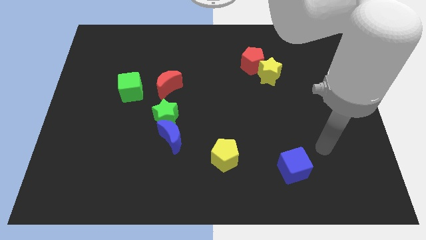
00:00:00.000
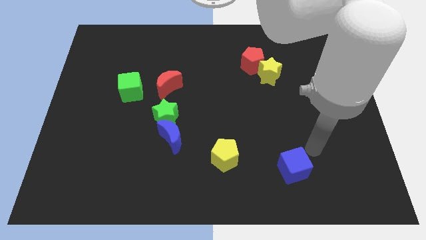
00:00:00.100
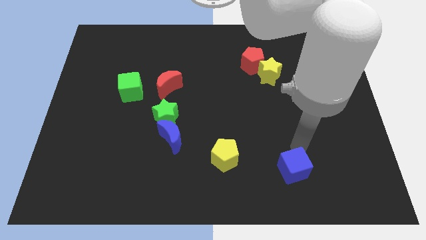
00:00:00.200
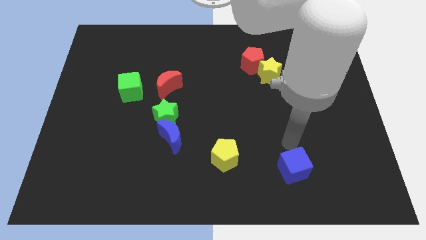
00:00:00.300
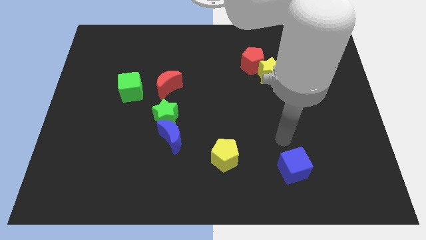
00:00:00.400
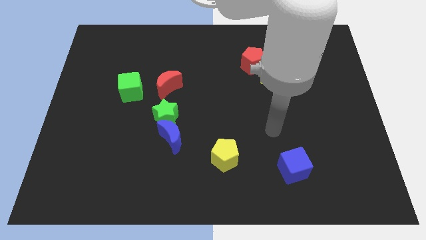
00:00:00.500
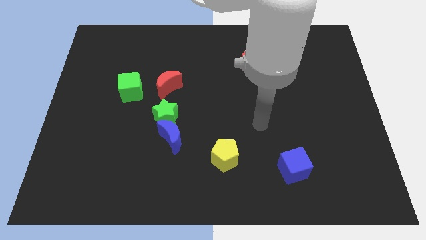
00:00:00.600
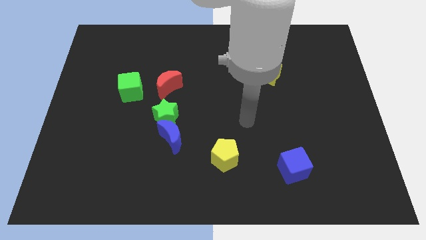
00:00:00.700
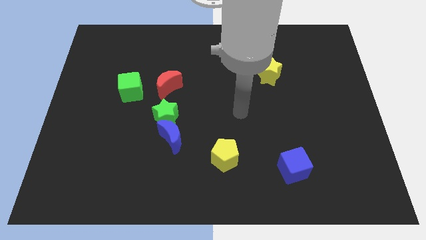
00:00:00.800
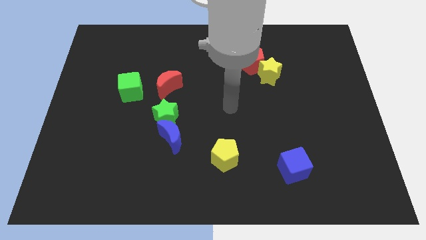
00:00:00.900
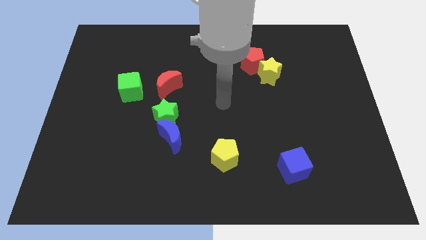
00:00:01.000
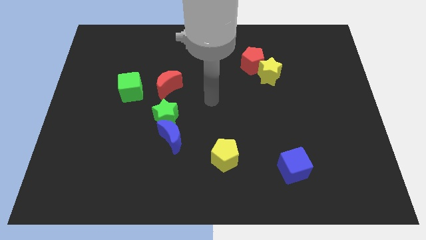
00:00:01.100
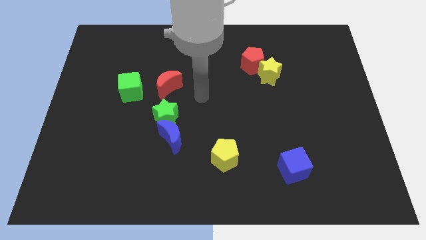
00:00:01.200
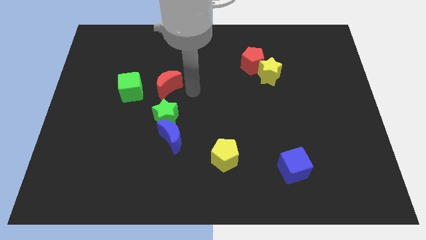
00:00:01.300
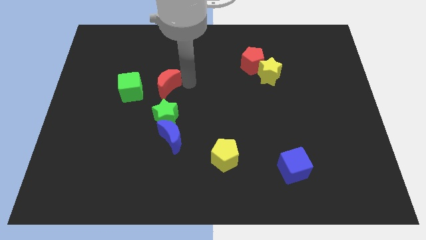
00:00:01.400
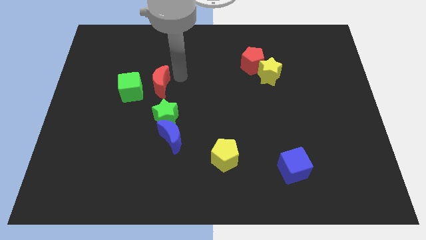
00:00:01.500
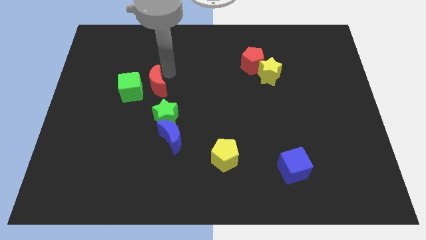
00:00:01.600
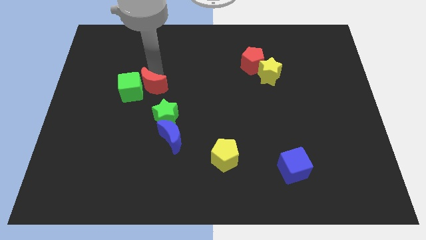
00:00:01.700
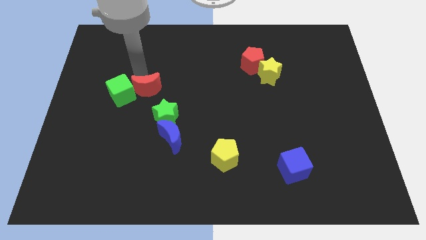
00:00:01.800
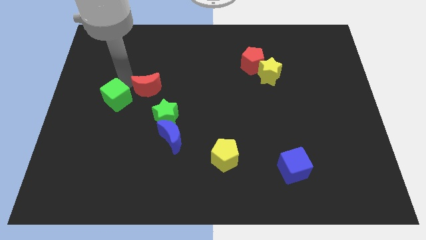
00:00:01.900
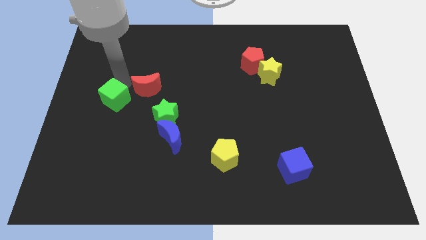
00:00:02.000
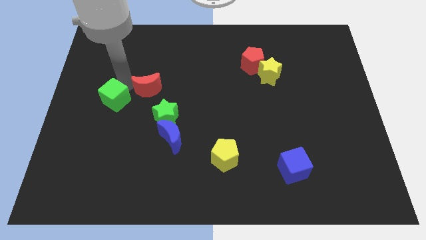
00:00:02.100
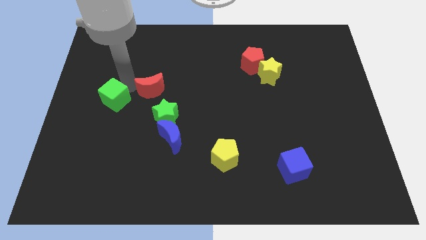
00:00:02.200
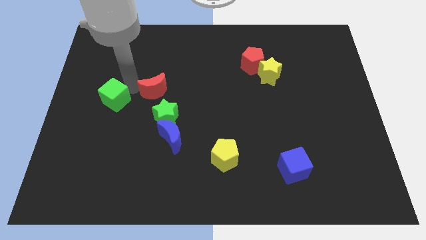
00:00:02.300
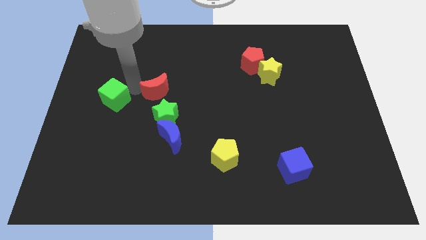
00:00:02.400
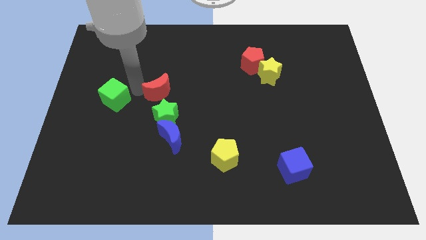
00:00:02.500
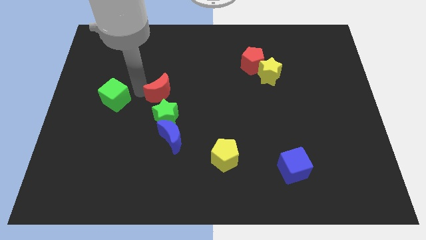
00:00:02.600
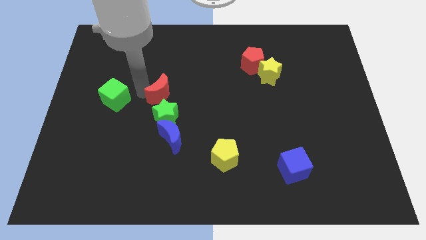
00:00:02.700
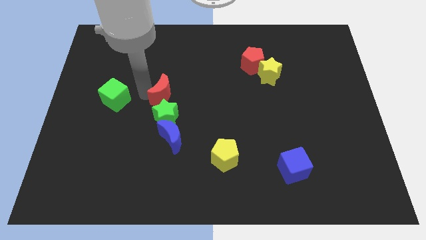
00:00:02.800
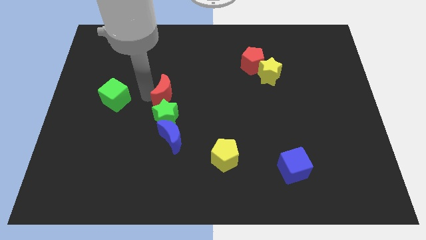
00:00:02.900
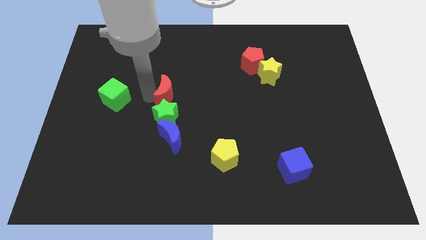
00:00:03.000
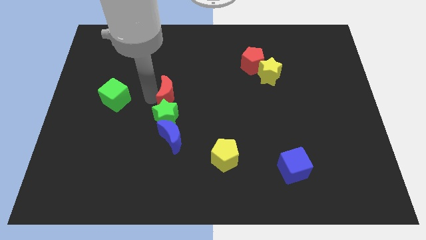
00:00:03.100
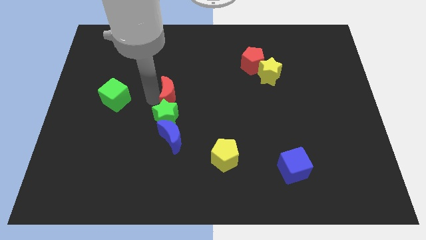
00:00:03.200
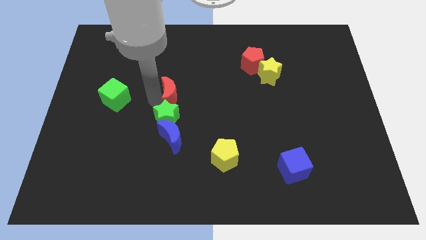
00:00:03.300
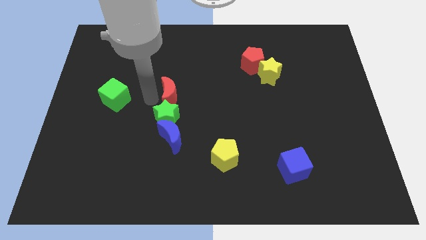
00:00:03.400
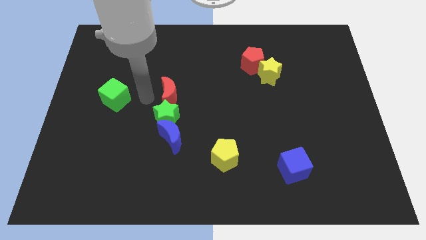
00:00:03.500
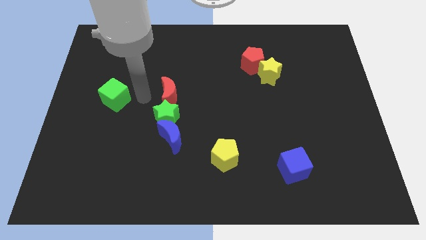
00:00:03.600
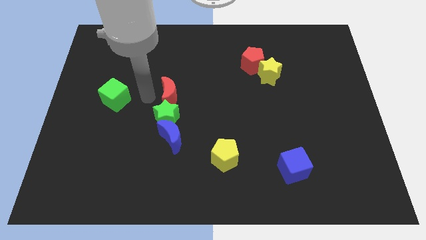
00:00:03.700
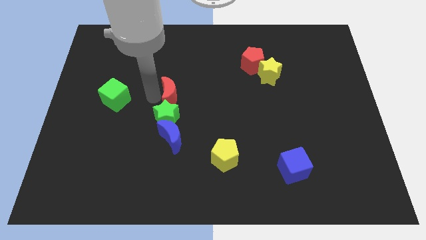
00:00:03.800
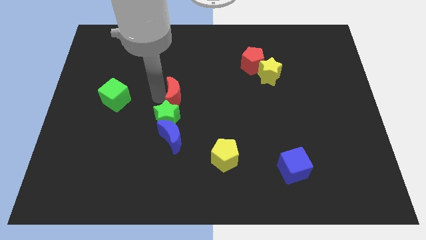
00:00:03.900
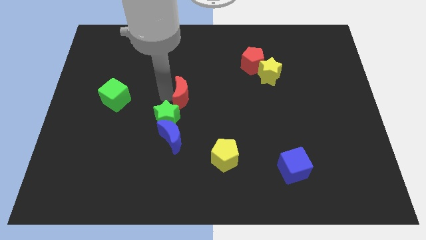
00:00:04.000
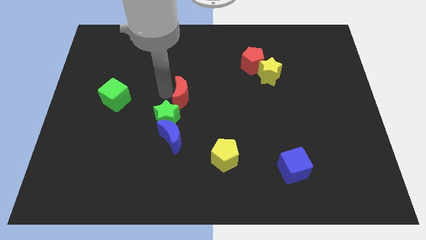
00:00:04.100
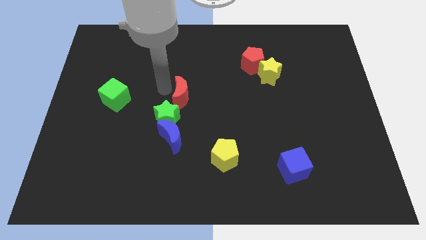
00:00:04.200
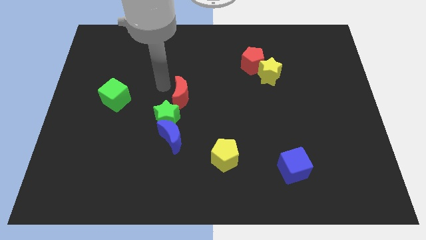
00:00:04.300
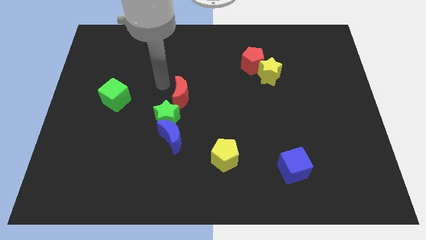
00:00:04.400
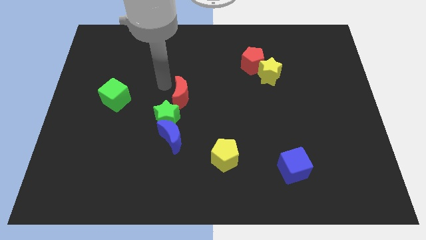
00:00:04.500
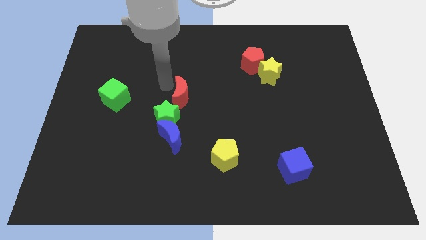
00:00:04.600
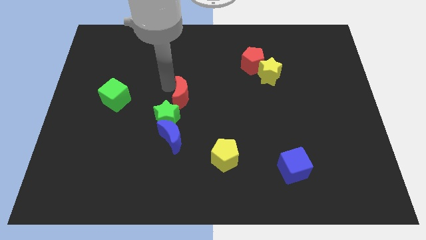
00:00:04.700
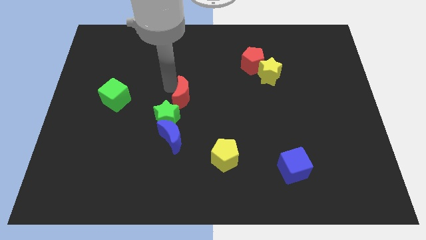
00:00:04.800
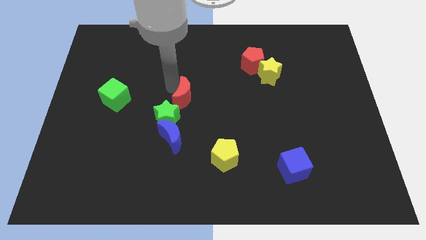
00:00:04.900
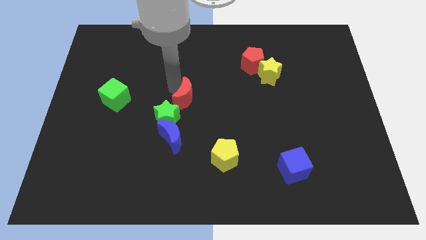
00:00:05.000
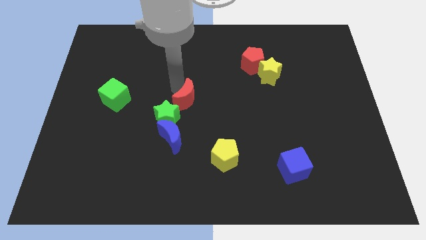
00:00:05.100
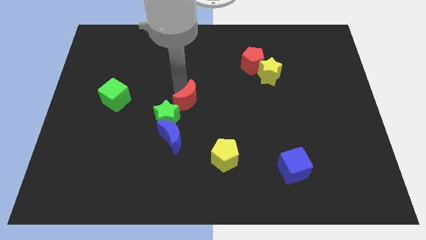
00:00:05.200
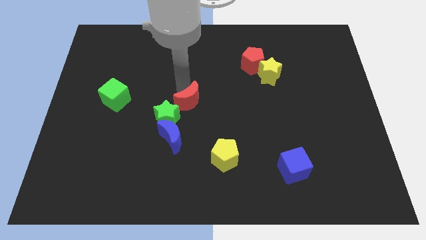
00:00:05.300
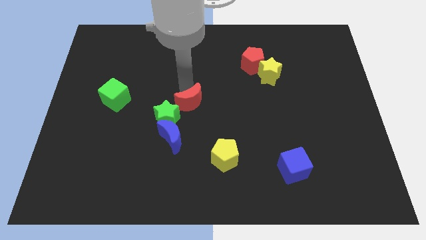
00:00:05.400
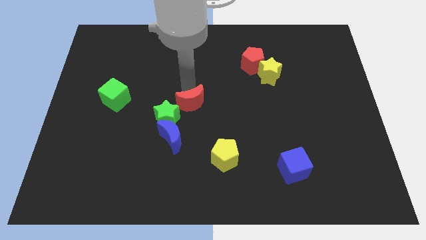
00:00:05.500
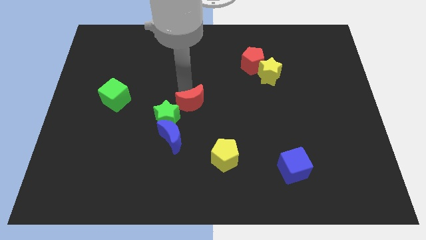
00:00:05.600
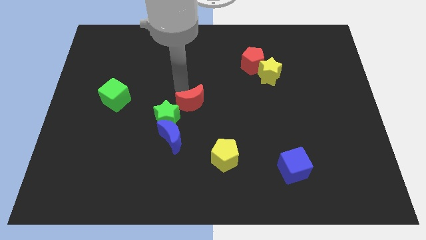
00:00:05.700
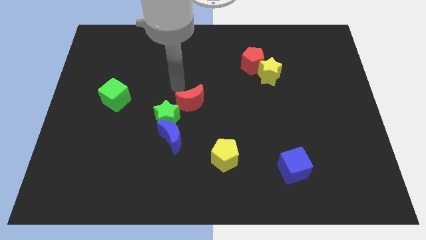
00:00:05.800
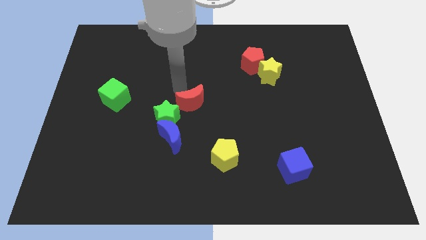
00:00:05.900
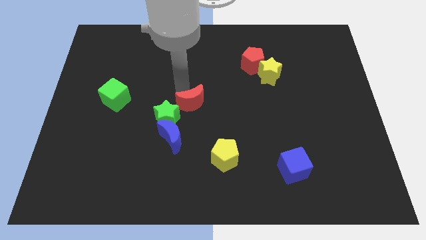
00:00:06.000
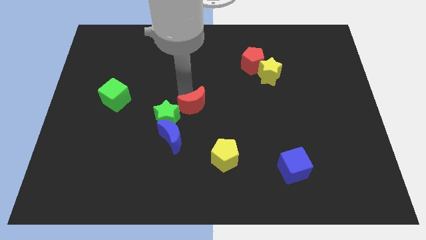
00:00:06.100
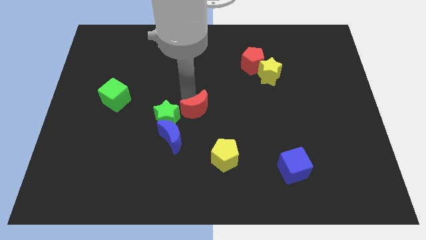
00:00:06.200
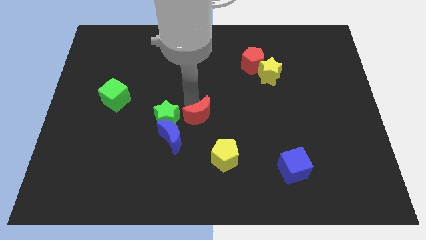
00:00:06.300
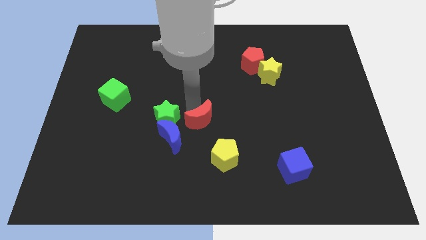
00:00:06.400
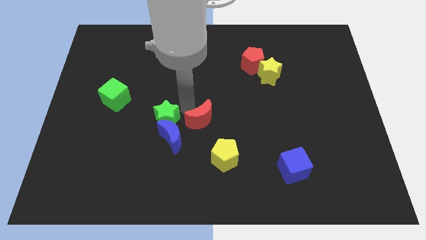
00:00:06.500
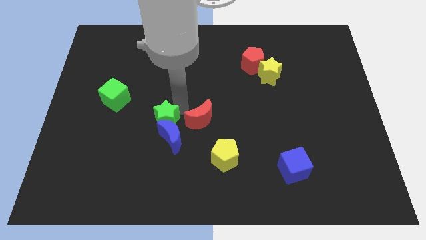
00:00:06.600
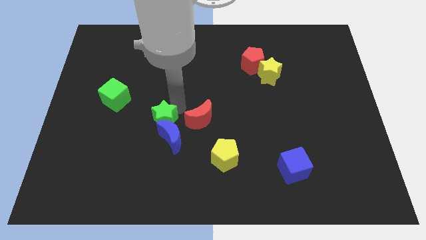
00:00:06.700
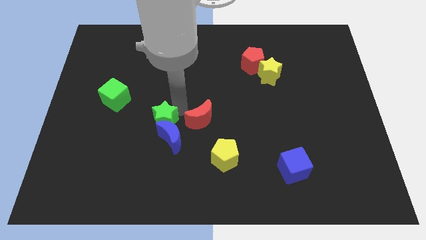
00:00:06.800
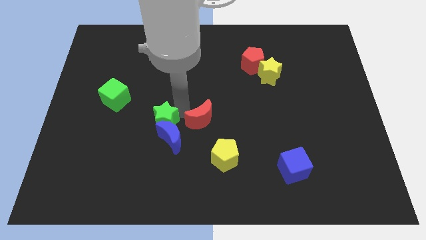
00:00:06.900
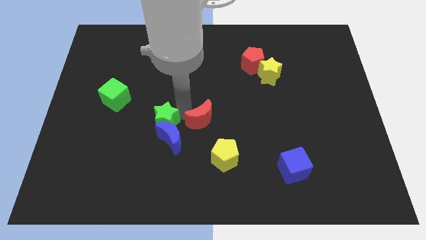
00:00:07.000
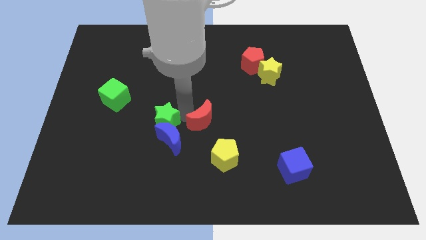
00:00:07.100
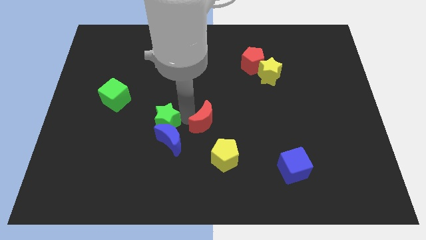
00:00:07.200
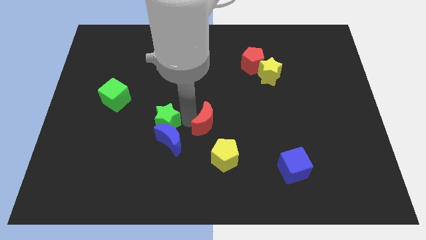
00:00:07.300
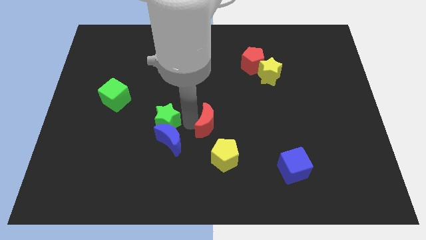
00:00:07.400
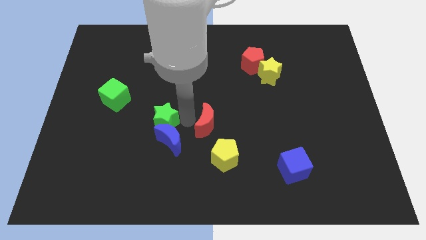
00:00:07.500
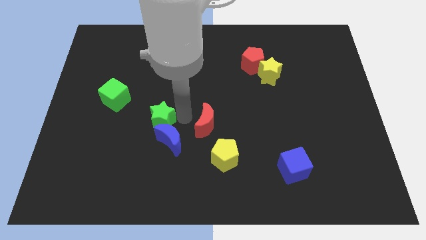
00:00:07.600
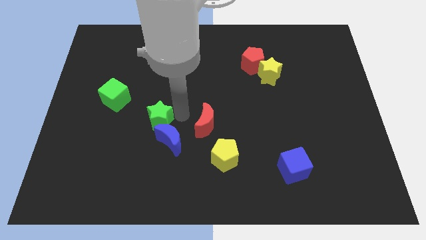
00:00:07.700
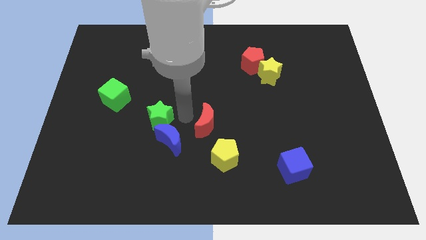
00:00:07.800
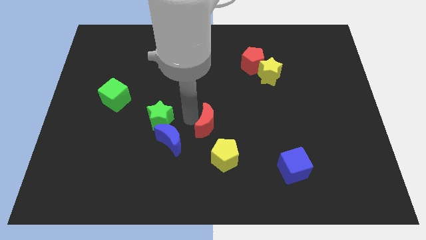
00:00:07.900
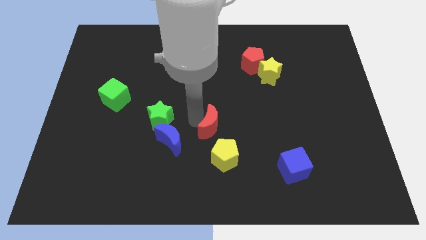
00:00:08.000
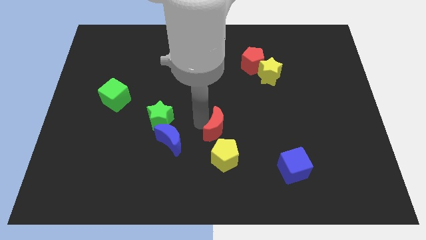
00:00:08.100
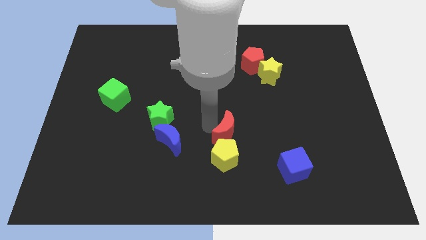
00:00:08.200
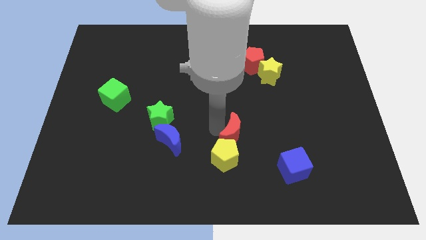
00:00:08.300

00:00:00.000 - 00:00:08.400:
push the red moon down and right diagonally

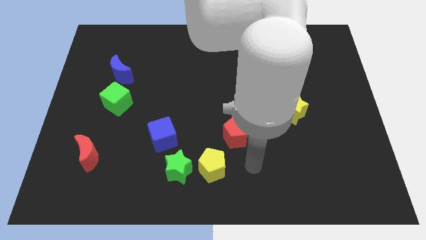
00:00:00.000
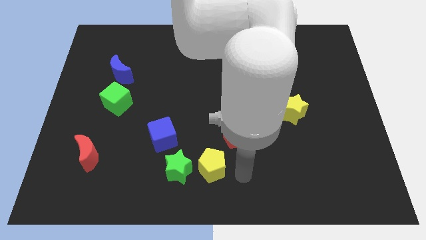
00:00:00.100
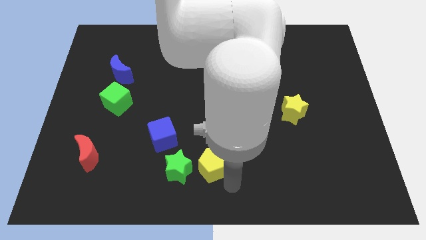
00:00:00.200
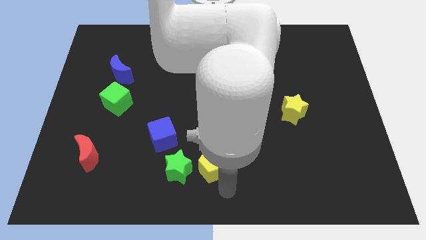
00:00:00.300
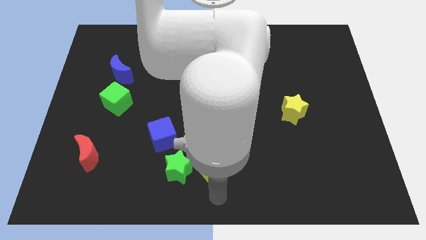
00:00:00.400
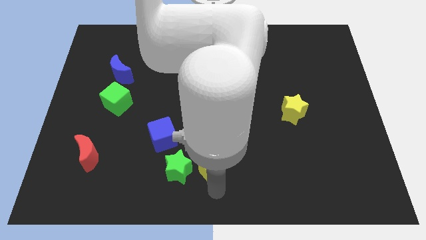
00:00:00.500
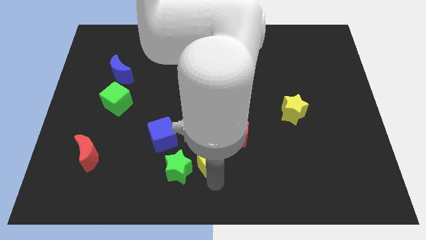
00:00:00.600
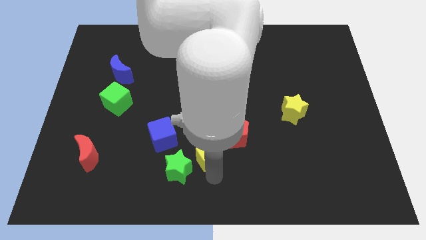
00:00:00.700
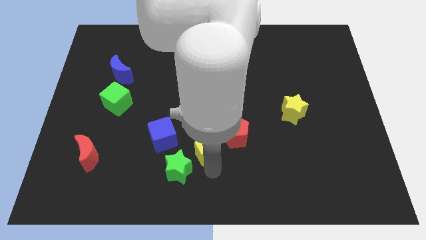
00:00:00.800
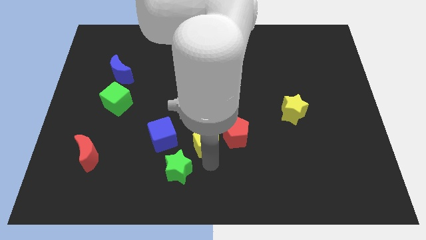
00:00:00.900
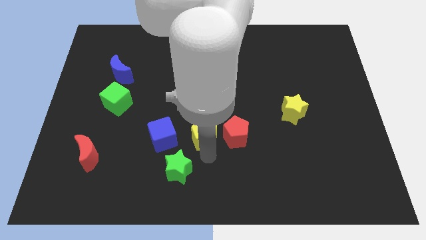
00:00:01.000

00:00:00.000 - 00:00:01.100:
move the yellow pentagon somewhat up
